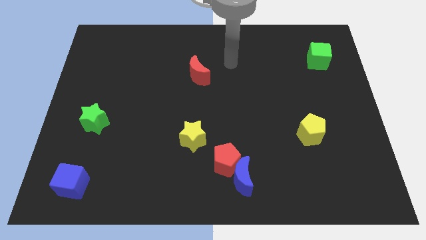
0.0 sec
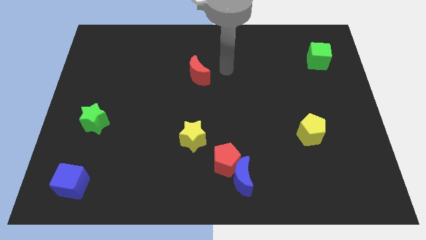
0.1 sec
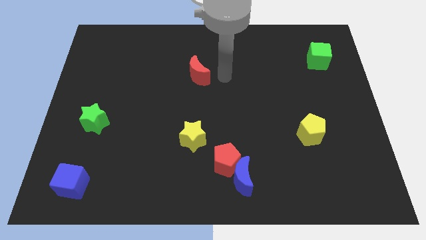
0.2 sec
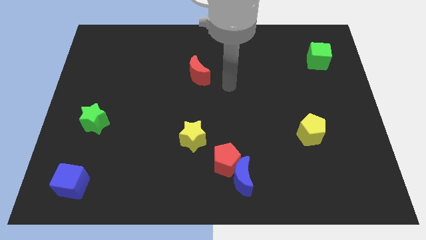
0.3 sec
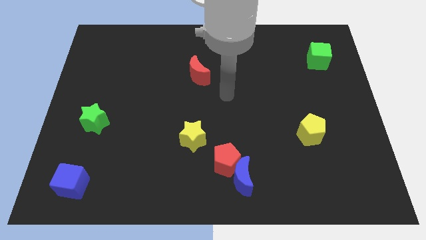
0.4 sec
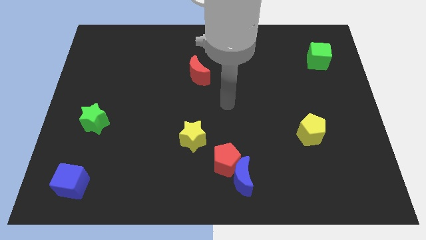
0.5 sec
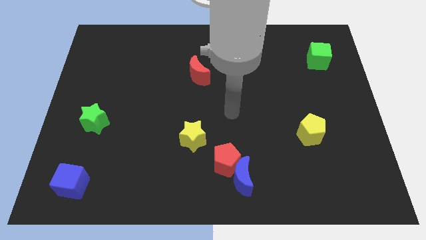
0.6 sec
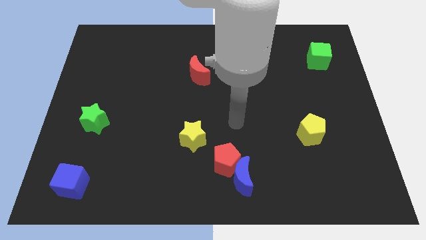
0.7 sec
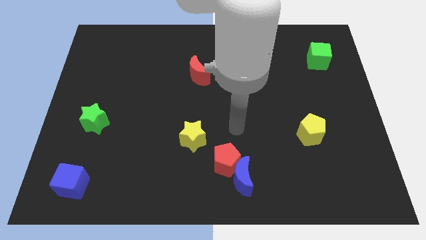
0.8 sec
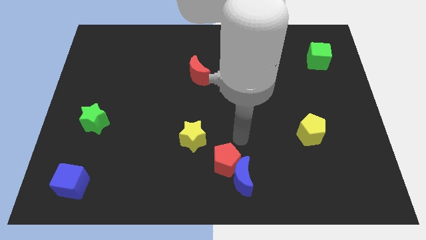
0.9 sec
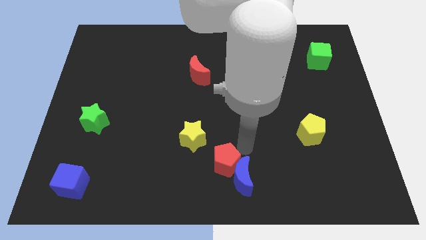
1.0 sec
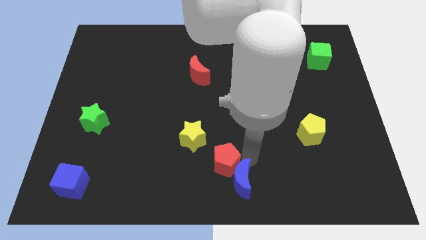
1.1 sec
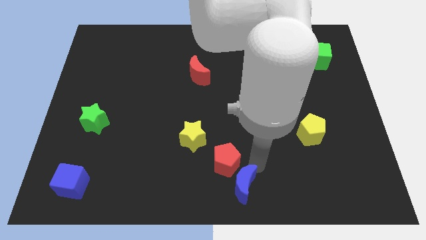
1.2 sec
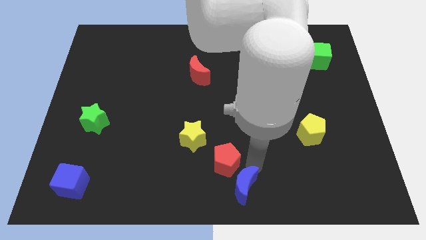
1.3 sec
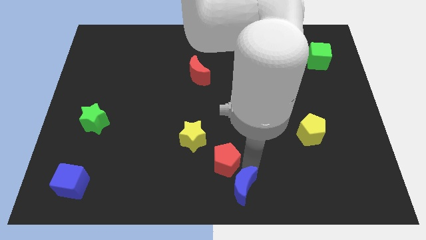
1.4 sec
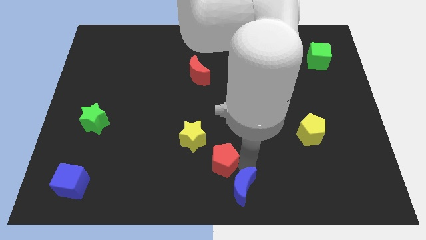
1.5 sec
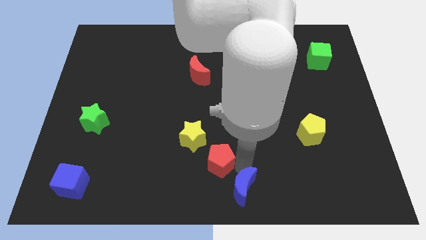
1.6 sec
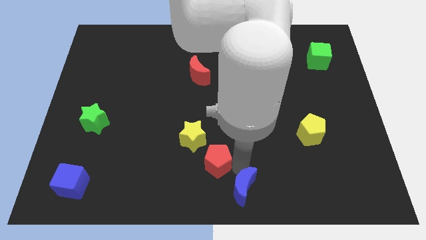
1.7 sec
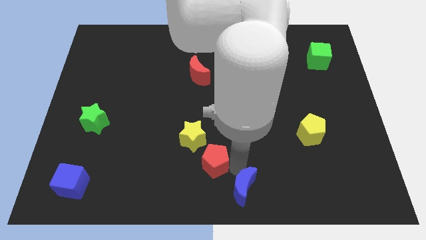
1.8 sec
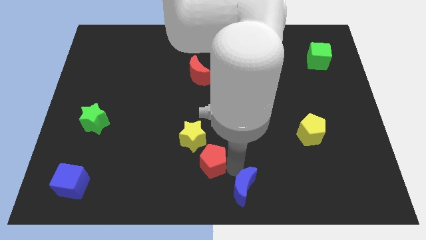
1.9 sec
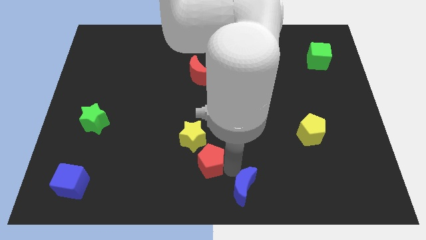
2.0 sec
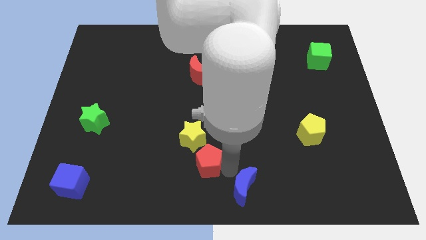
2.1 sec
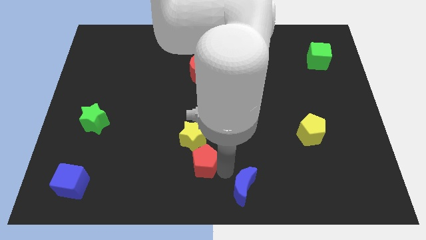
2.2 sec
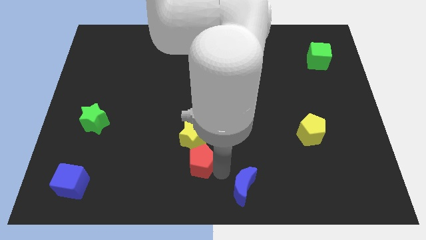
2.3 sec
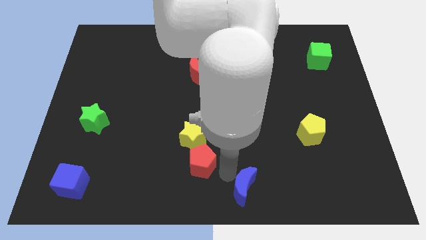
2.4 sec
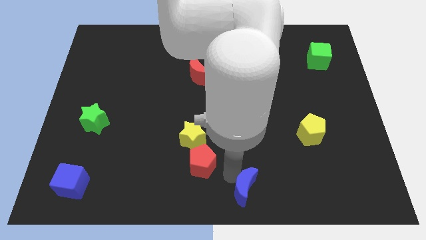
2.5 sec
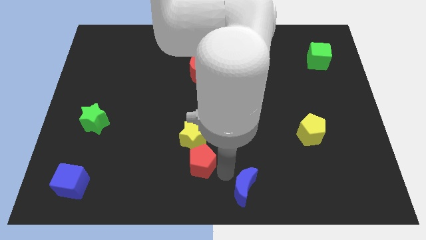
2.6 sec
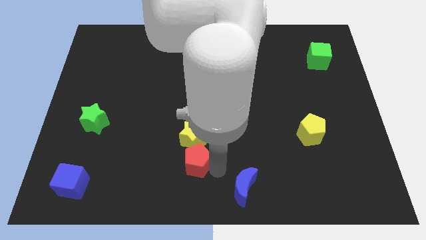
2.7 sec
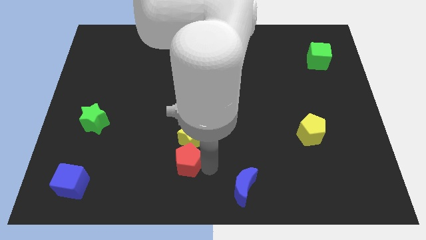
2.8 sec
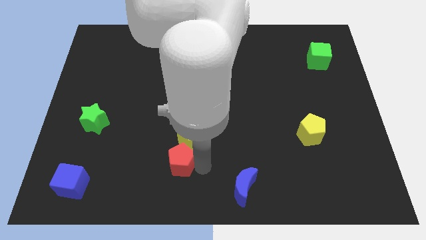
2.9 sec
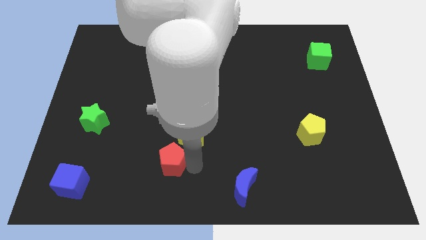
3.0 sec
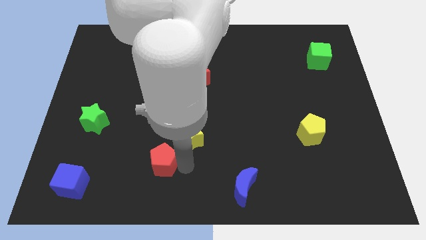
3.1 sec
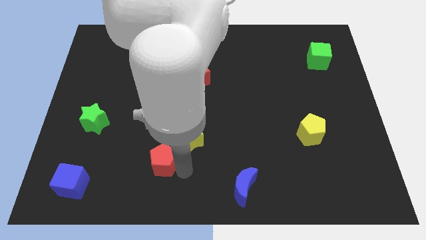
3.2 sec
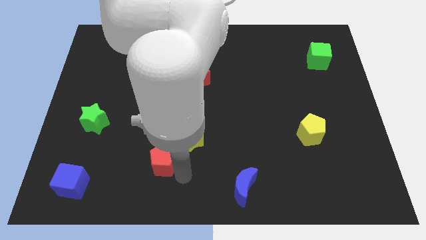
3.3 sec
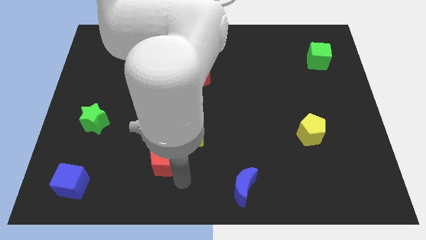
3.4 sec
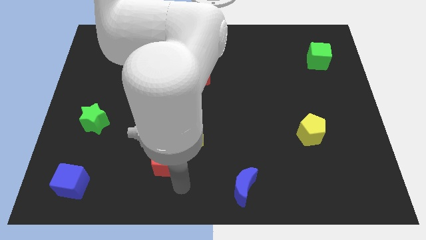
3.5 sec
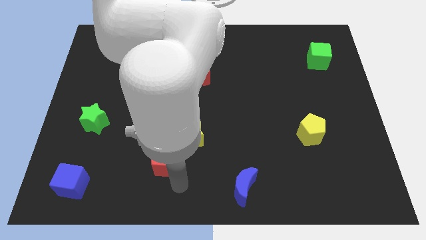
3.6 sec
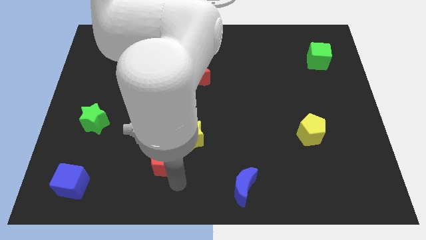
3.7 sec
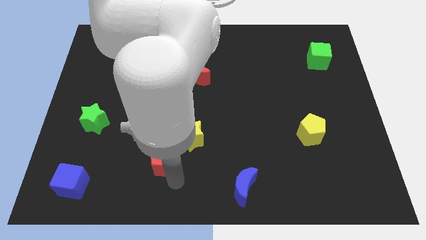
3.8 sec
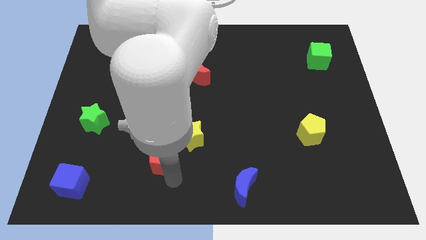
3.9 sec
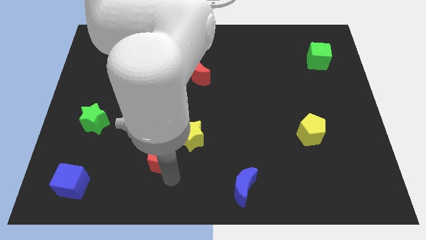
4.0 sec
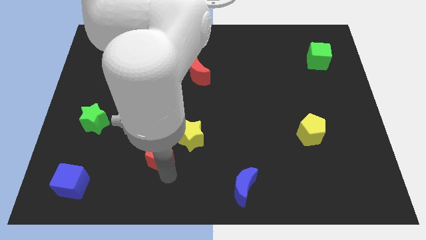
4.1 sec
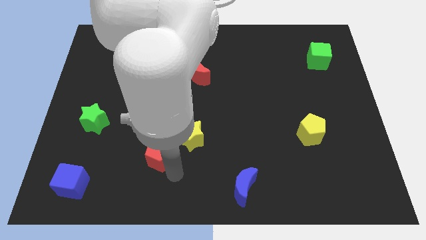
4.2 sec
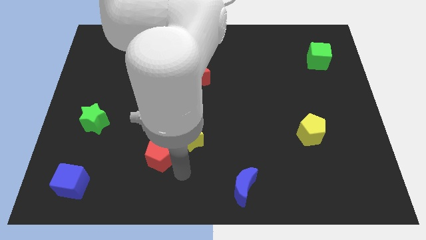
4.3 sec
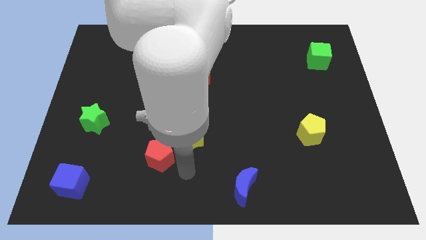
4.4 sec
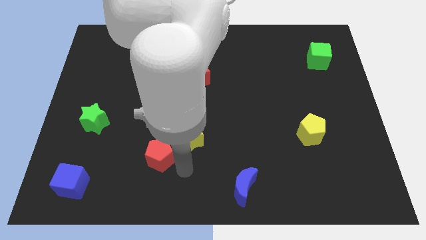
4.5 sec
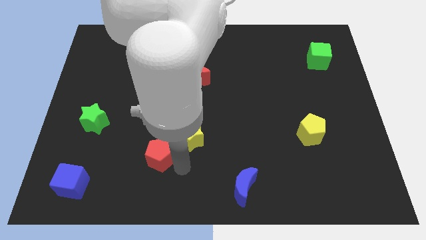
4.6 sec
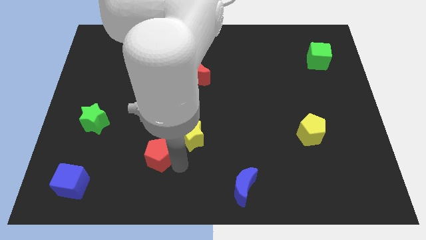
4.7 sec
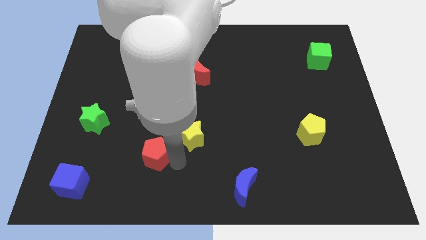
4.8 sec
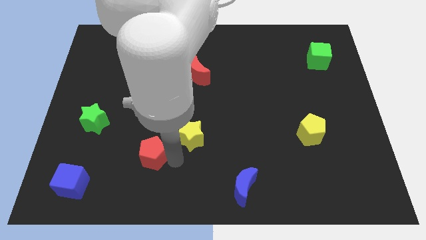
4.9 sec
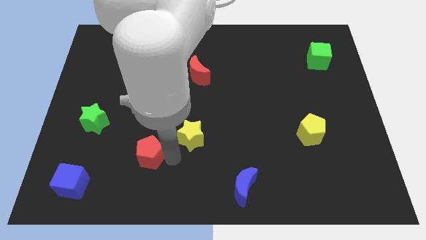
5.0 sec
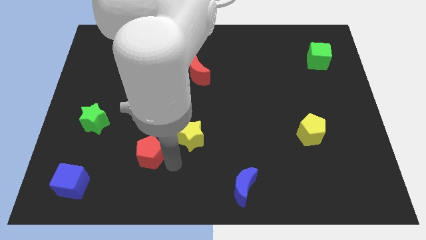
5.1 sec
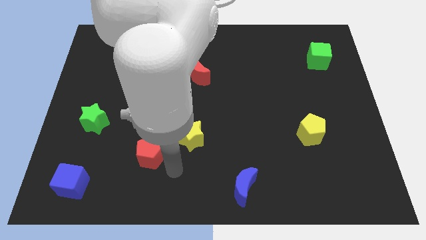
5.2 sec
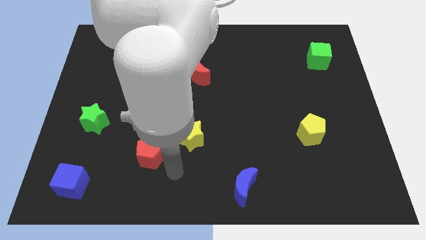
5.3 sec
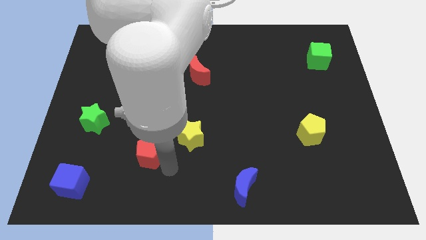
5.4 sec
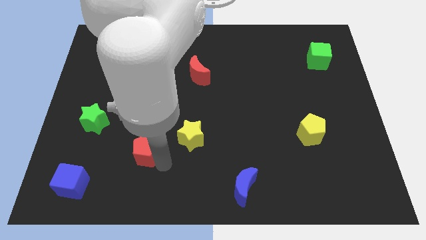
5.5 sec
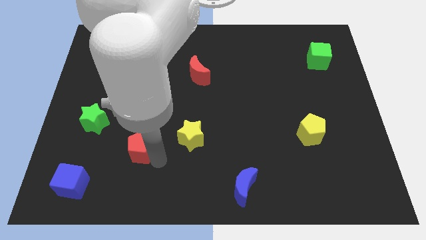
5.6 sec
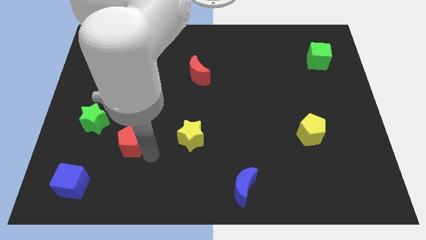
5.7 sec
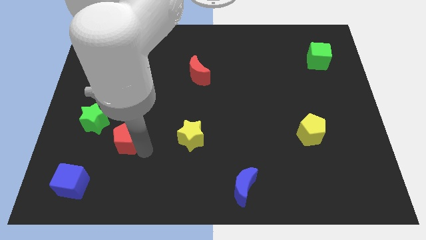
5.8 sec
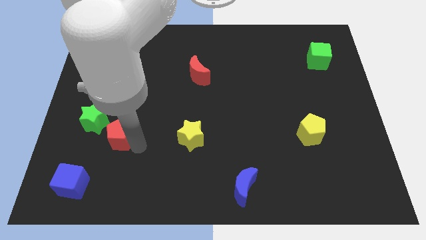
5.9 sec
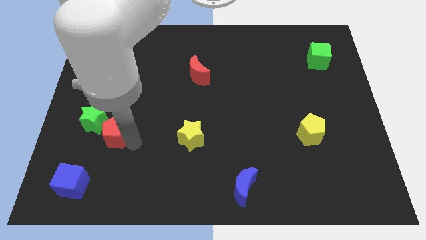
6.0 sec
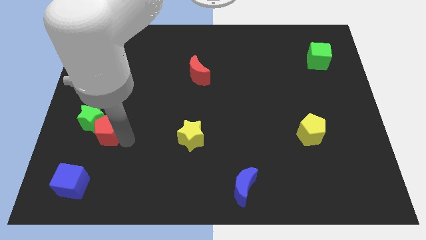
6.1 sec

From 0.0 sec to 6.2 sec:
slide the red pentagon next to the green star
